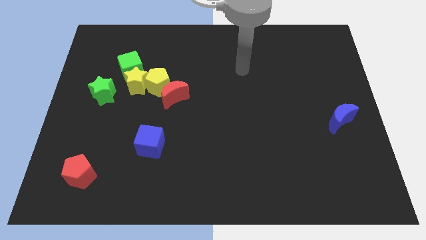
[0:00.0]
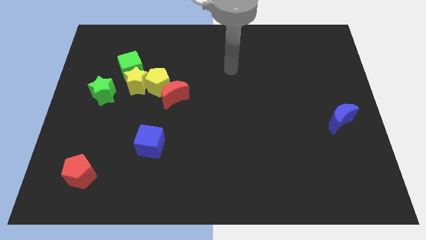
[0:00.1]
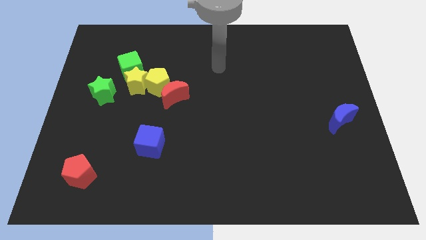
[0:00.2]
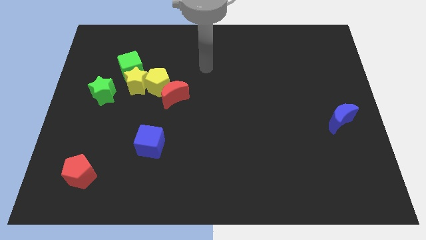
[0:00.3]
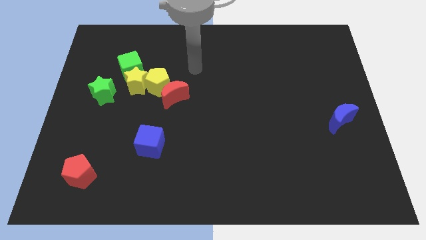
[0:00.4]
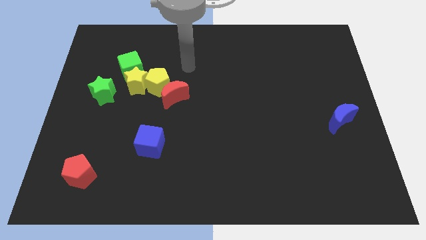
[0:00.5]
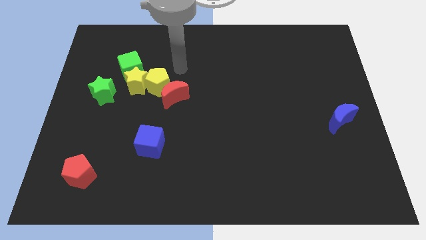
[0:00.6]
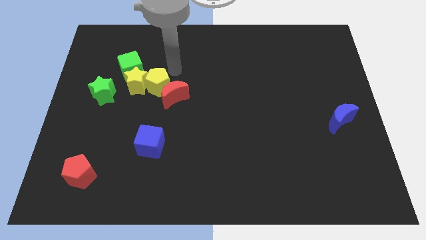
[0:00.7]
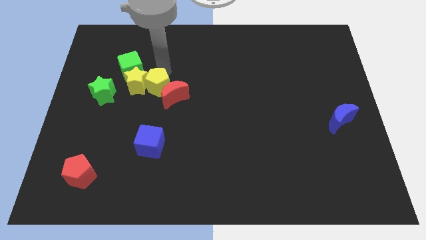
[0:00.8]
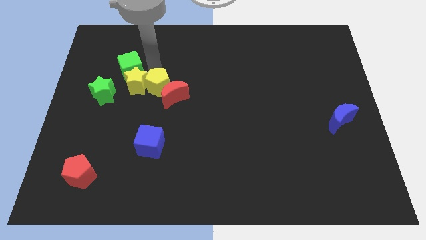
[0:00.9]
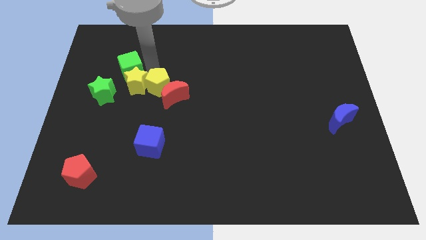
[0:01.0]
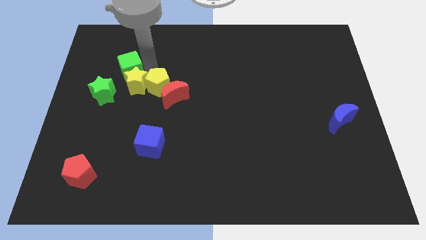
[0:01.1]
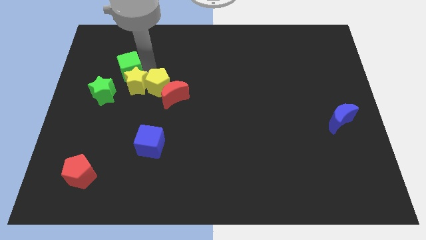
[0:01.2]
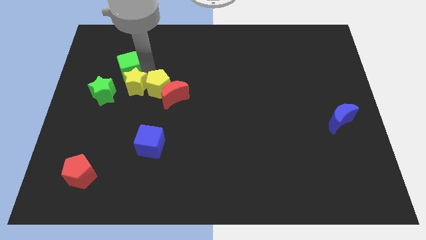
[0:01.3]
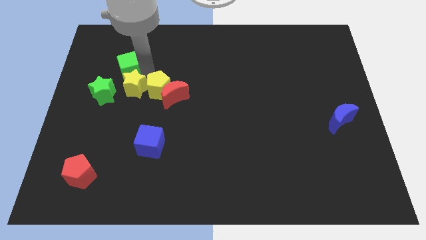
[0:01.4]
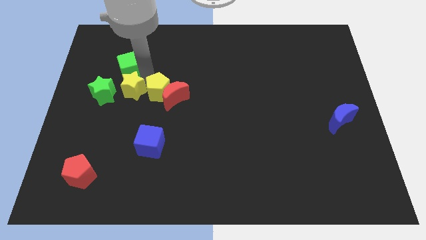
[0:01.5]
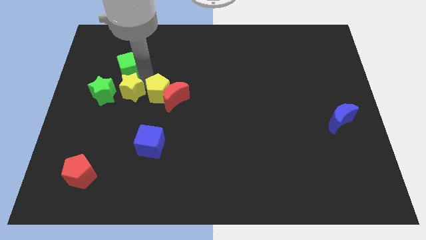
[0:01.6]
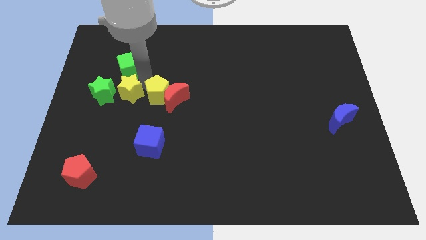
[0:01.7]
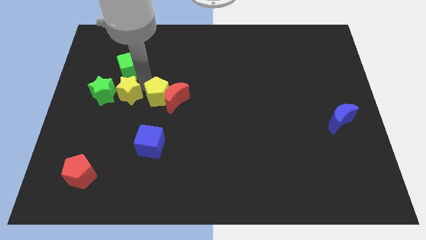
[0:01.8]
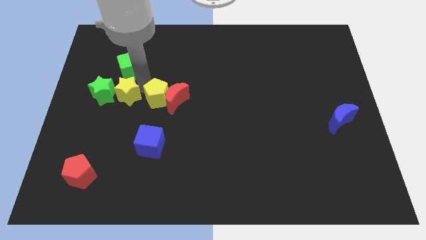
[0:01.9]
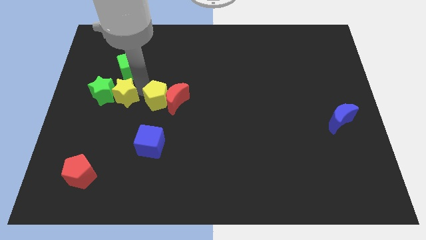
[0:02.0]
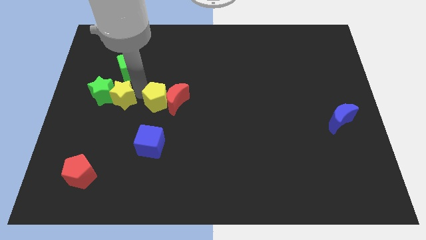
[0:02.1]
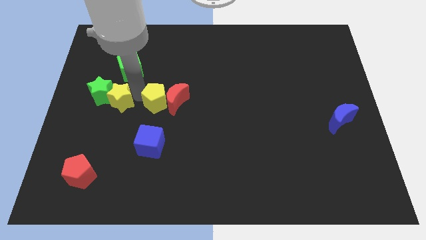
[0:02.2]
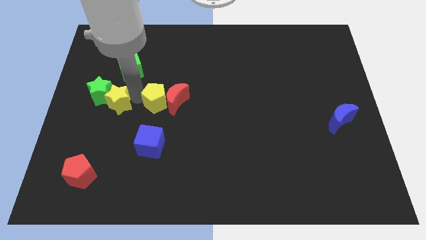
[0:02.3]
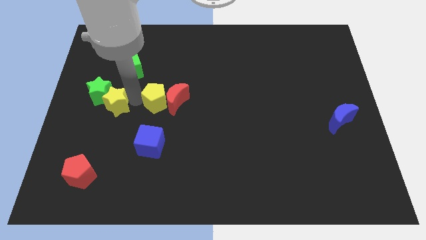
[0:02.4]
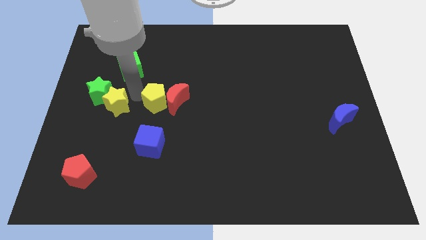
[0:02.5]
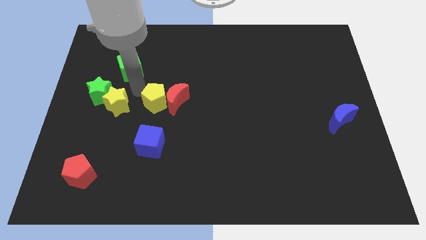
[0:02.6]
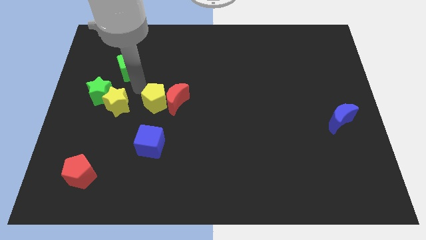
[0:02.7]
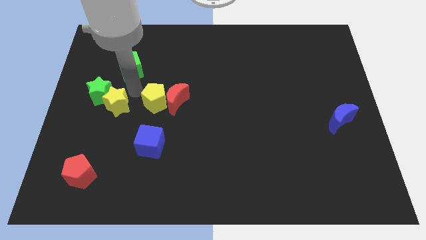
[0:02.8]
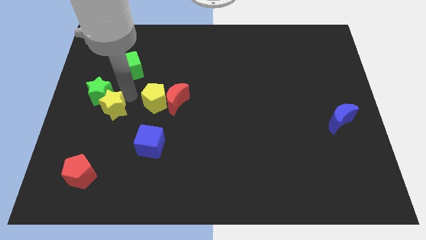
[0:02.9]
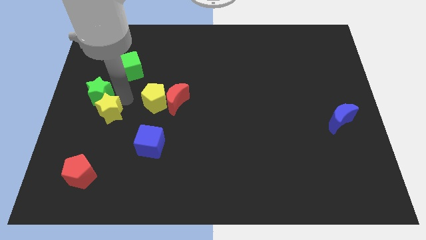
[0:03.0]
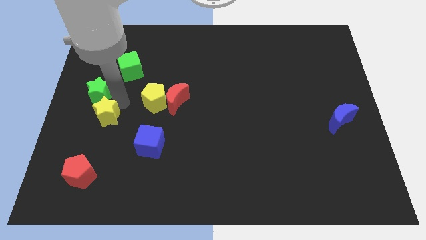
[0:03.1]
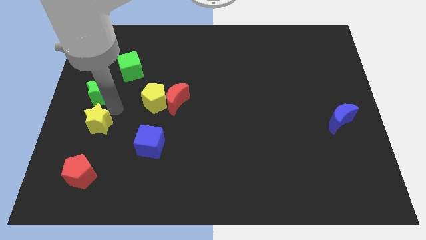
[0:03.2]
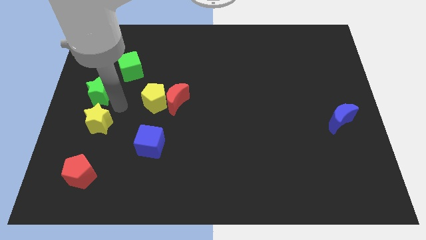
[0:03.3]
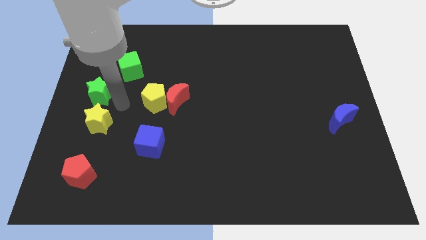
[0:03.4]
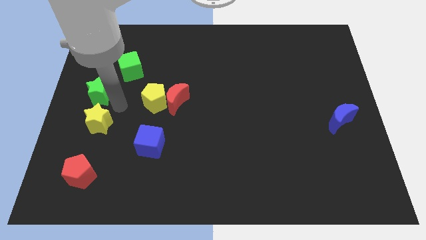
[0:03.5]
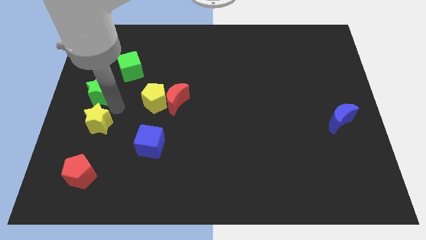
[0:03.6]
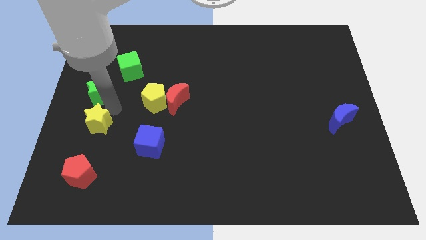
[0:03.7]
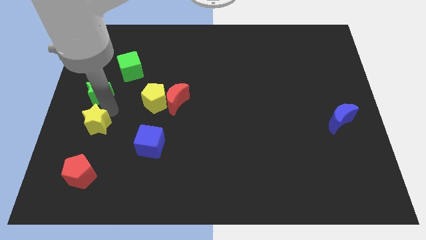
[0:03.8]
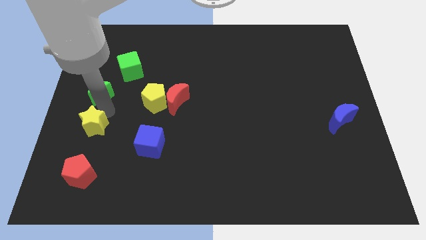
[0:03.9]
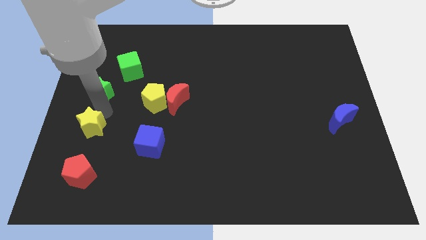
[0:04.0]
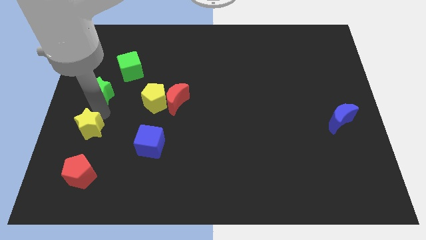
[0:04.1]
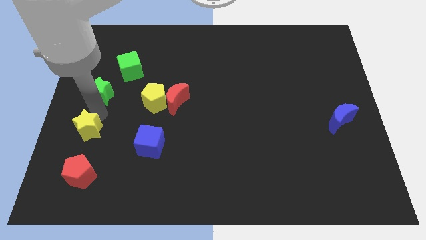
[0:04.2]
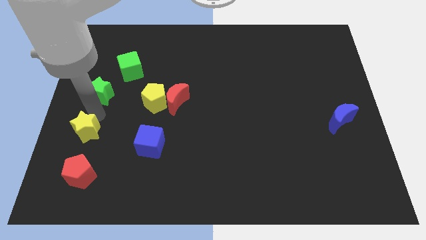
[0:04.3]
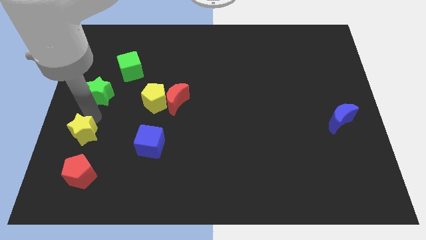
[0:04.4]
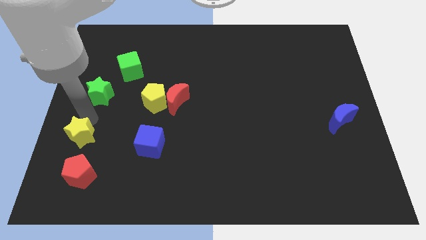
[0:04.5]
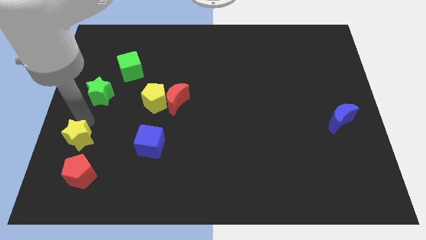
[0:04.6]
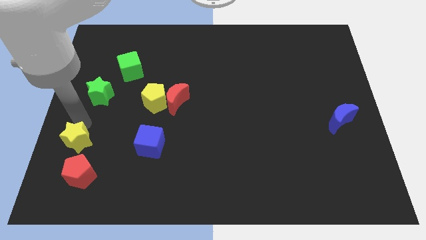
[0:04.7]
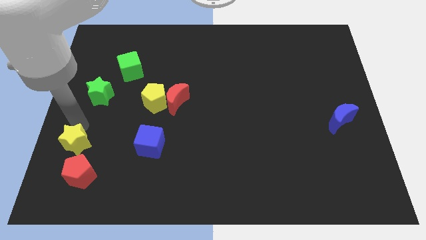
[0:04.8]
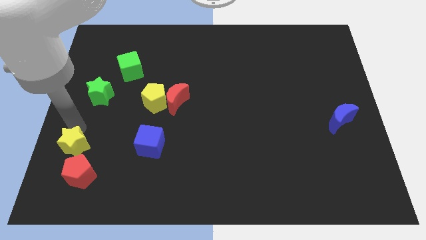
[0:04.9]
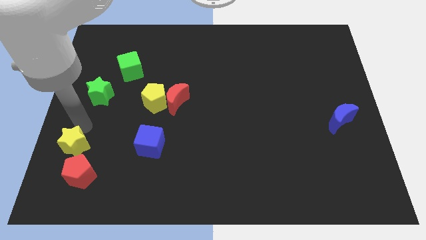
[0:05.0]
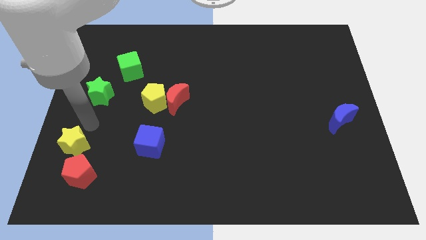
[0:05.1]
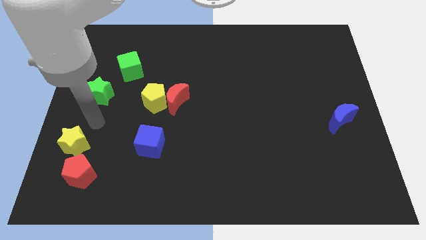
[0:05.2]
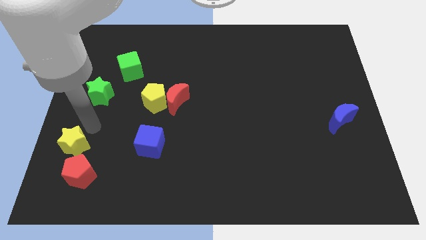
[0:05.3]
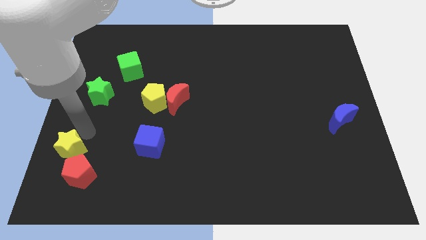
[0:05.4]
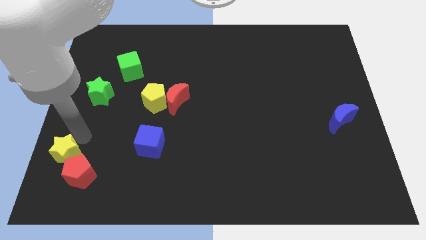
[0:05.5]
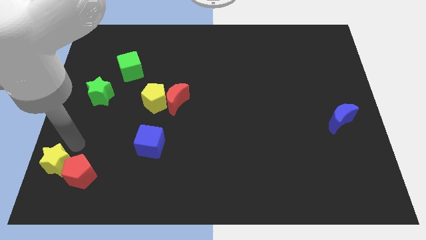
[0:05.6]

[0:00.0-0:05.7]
put the yellow star to the bottom left of the board

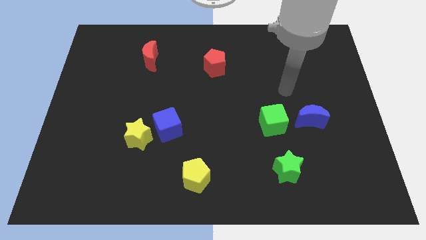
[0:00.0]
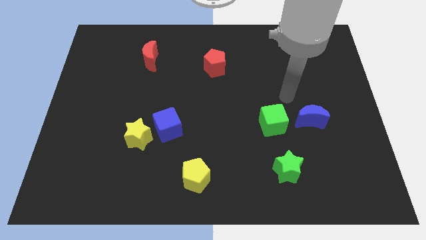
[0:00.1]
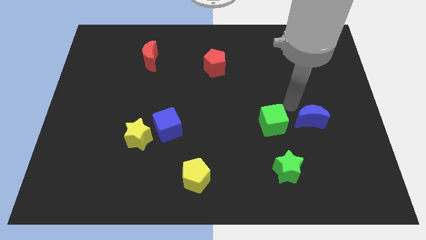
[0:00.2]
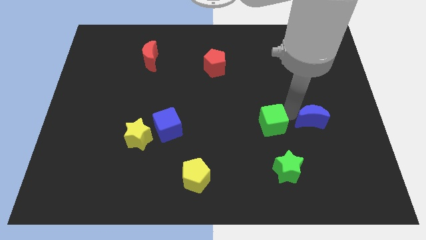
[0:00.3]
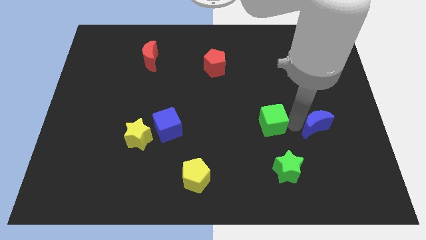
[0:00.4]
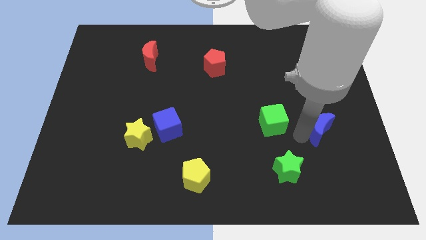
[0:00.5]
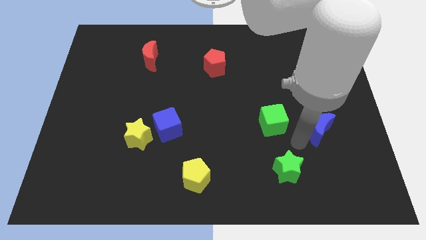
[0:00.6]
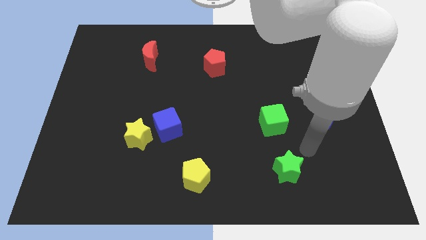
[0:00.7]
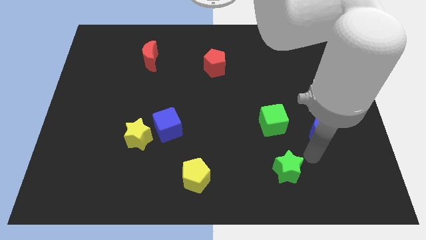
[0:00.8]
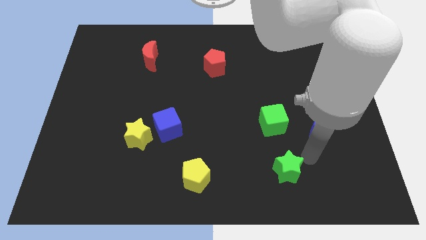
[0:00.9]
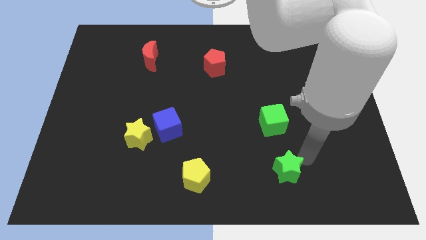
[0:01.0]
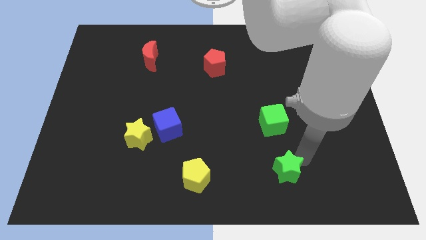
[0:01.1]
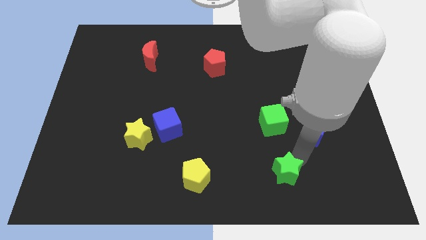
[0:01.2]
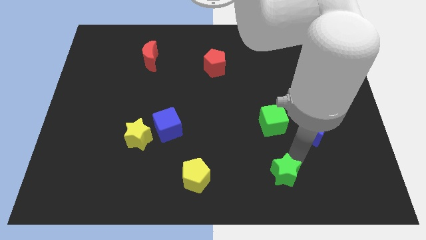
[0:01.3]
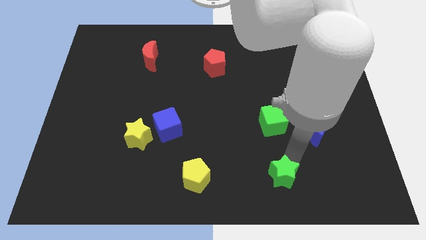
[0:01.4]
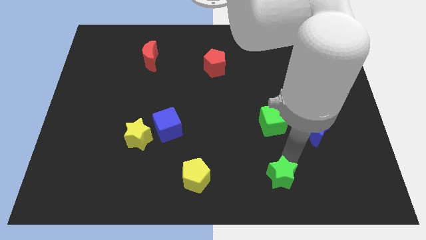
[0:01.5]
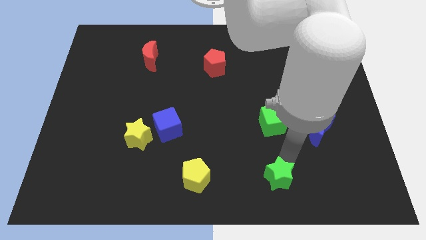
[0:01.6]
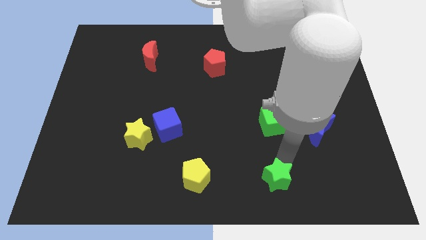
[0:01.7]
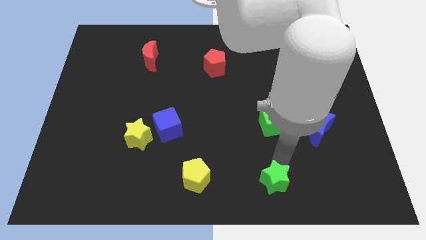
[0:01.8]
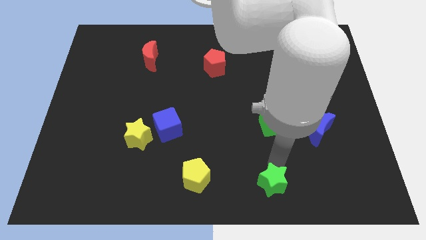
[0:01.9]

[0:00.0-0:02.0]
put the green star to the bottom side
